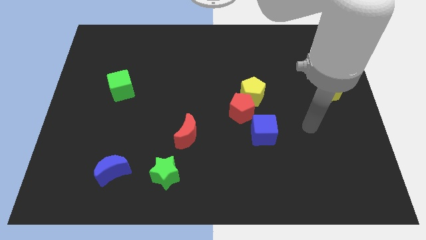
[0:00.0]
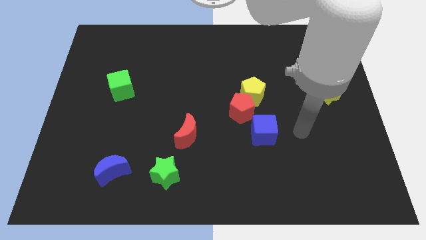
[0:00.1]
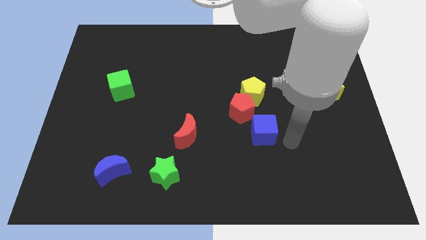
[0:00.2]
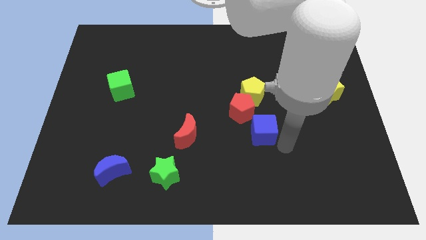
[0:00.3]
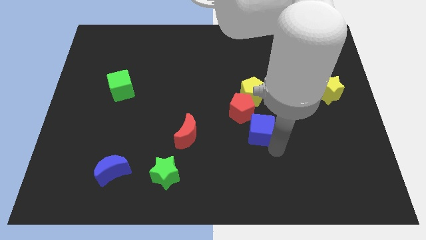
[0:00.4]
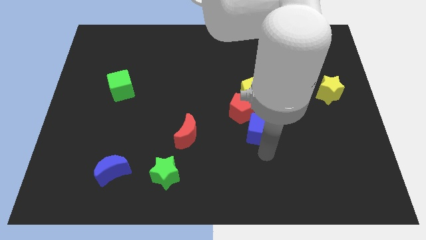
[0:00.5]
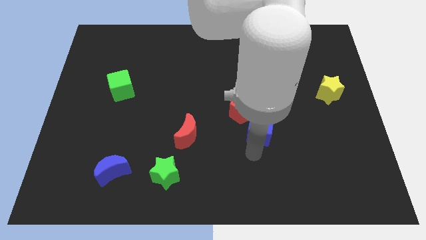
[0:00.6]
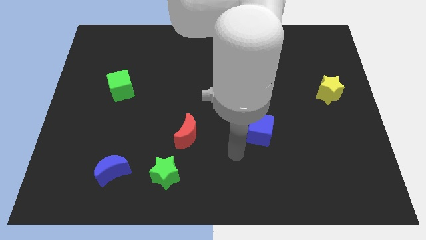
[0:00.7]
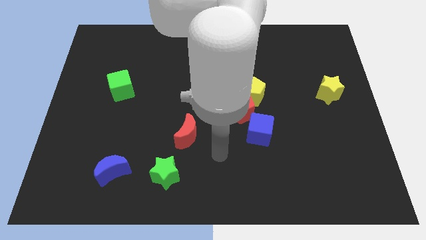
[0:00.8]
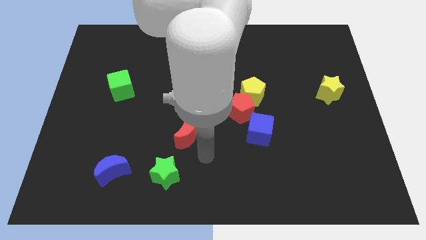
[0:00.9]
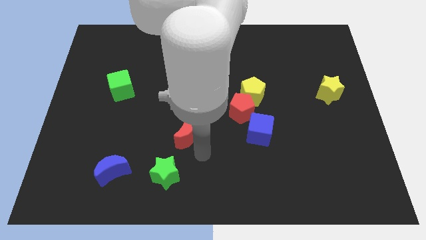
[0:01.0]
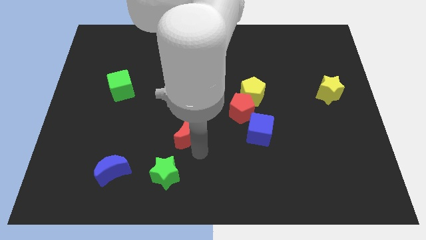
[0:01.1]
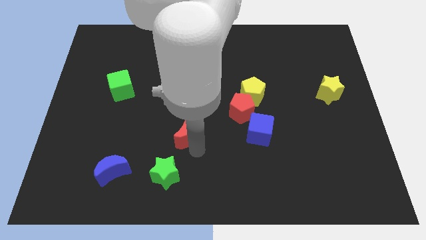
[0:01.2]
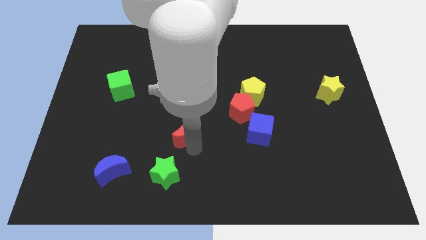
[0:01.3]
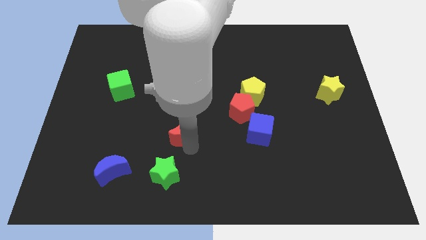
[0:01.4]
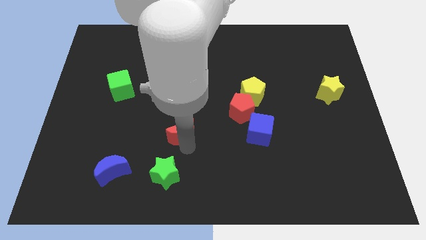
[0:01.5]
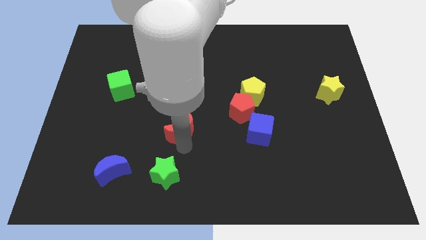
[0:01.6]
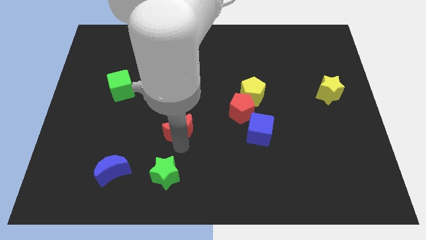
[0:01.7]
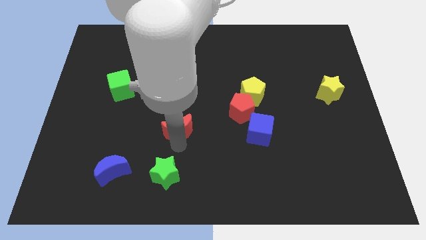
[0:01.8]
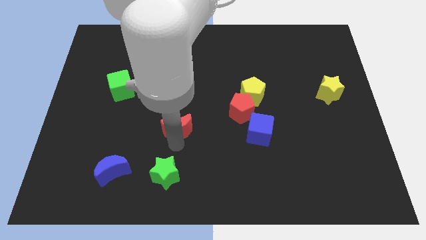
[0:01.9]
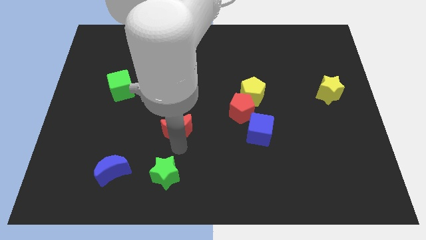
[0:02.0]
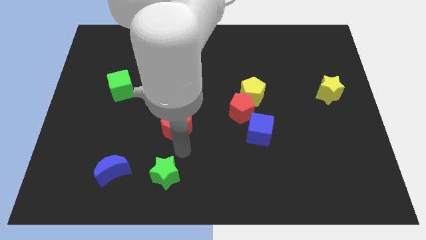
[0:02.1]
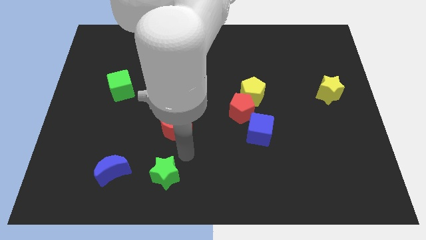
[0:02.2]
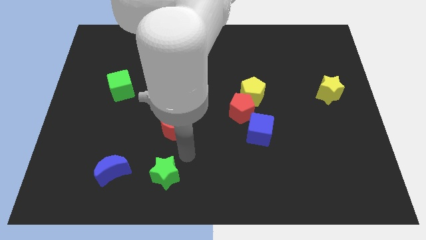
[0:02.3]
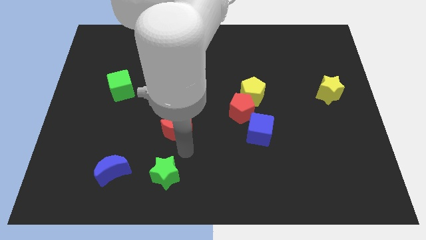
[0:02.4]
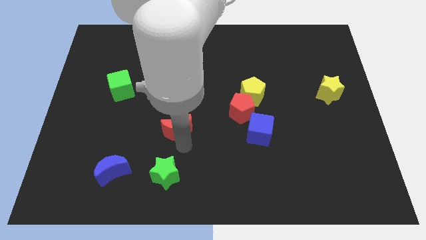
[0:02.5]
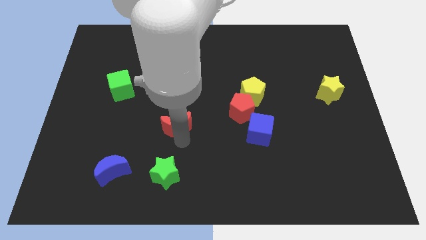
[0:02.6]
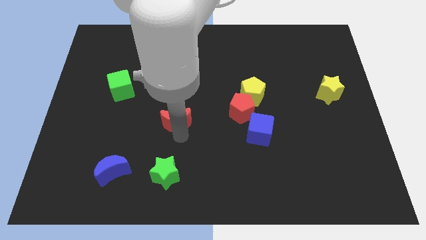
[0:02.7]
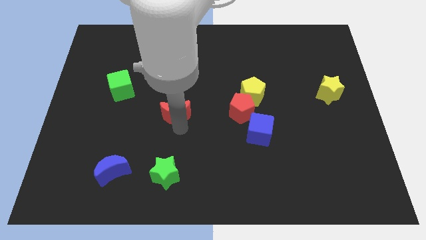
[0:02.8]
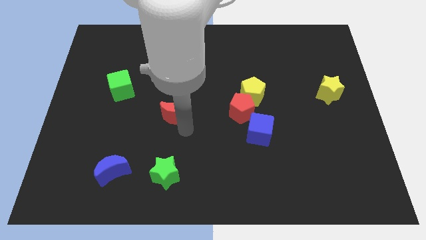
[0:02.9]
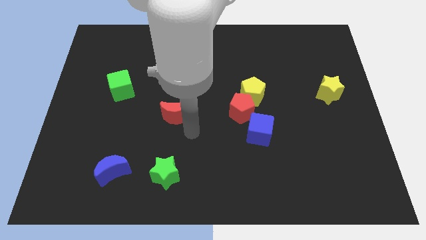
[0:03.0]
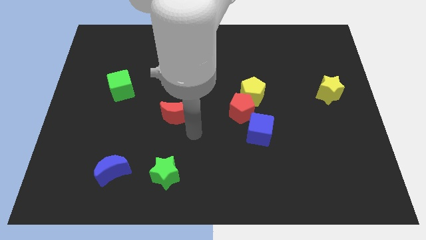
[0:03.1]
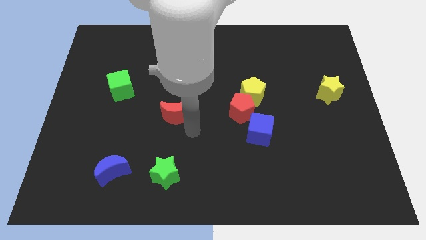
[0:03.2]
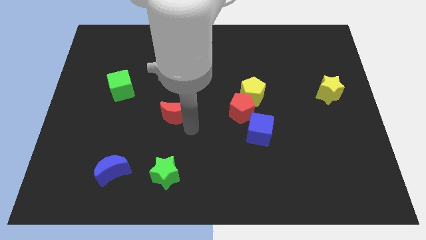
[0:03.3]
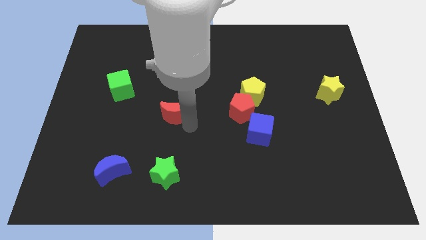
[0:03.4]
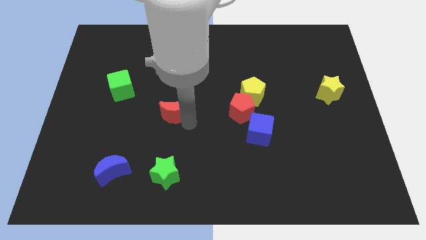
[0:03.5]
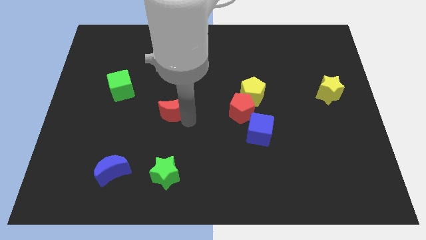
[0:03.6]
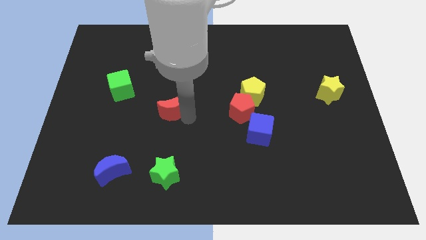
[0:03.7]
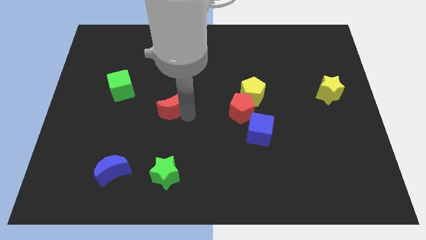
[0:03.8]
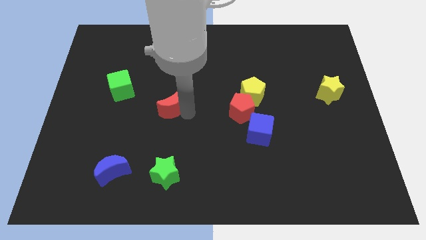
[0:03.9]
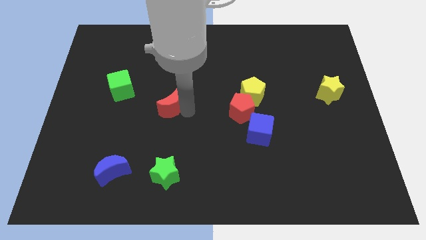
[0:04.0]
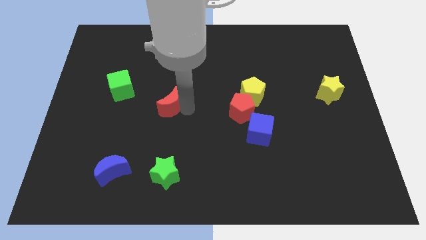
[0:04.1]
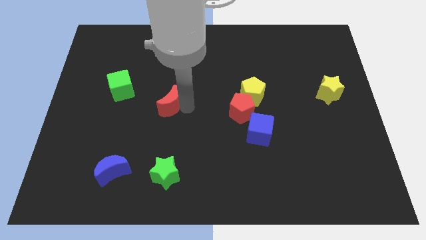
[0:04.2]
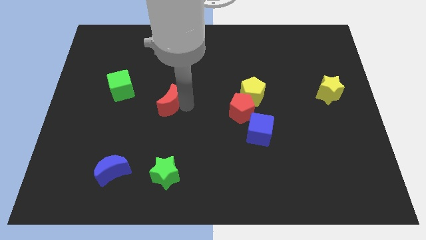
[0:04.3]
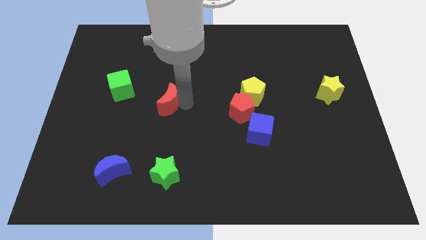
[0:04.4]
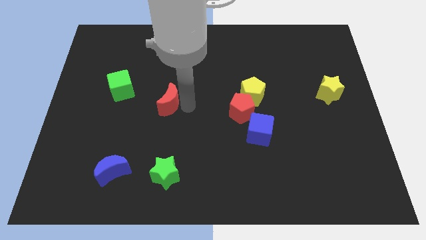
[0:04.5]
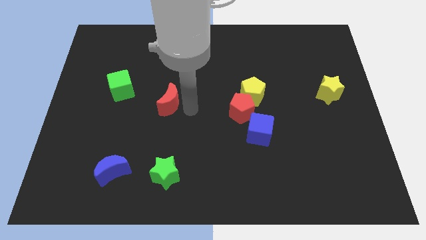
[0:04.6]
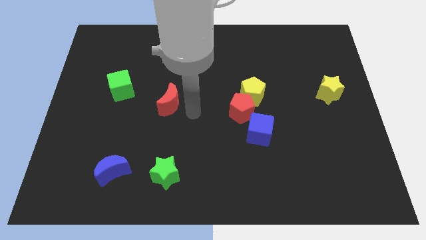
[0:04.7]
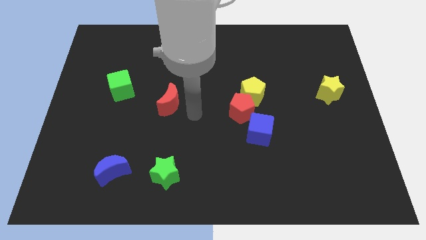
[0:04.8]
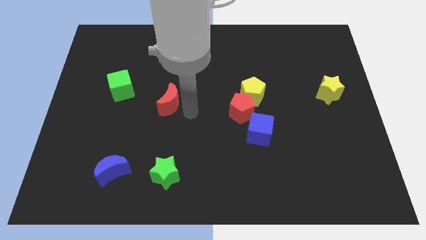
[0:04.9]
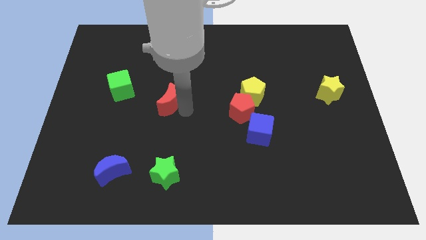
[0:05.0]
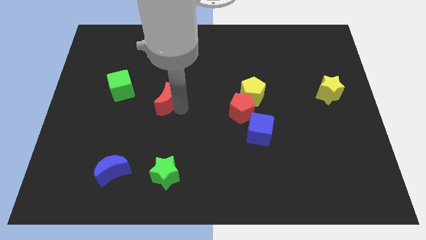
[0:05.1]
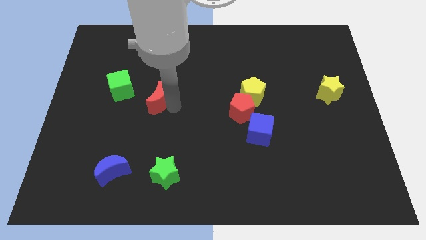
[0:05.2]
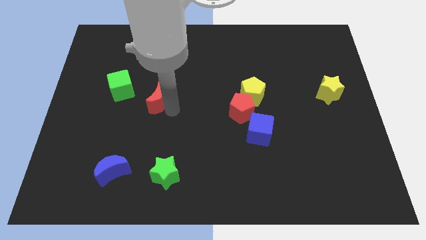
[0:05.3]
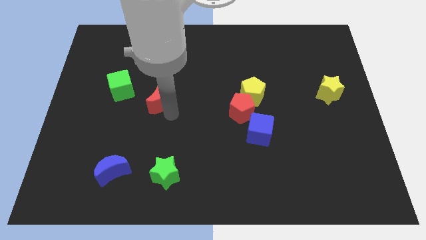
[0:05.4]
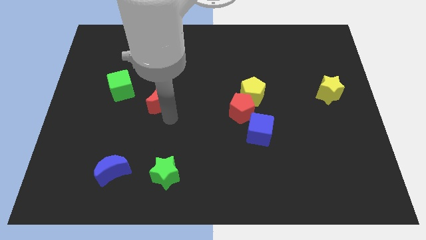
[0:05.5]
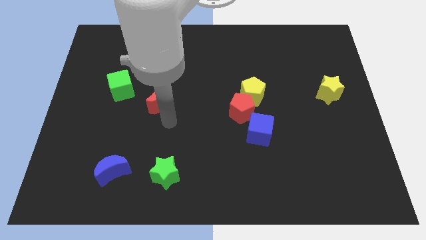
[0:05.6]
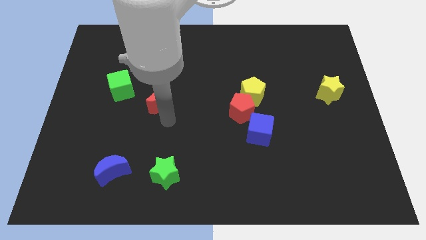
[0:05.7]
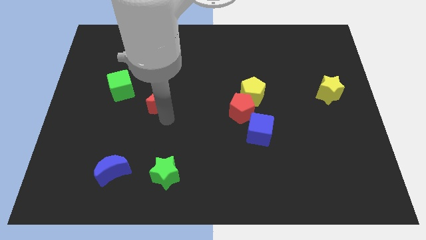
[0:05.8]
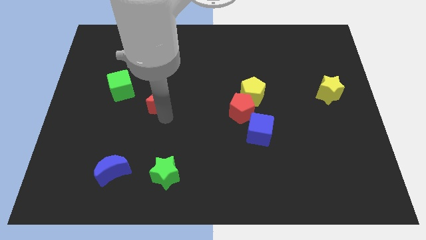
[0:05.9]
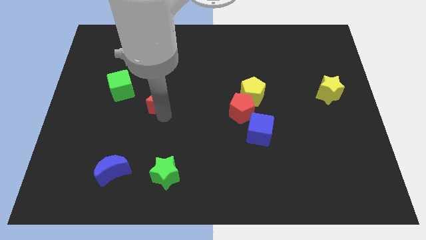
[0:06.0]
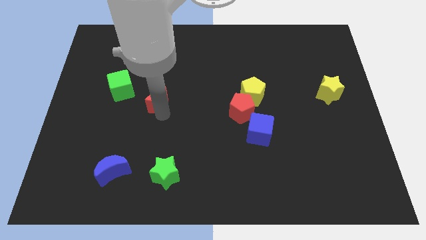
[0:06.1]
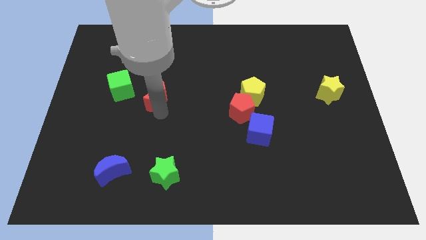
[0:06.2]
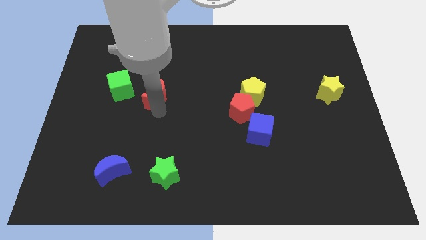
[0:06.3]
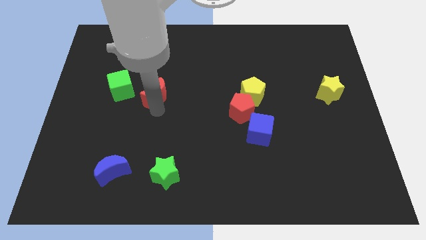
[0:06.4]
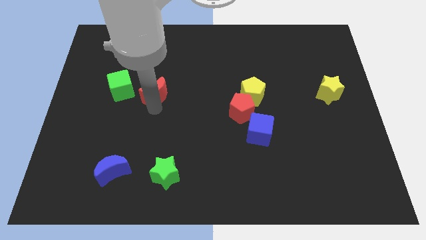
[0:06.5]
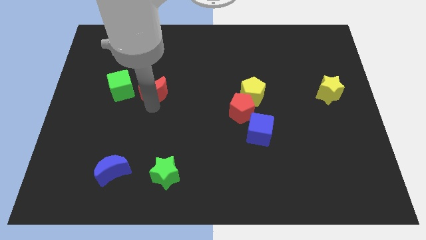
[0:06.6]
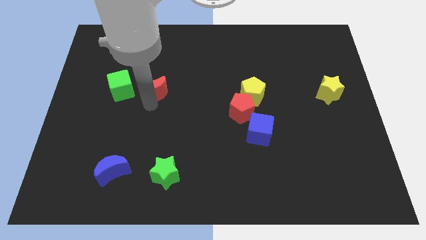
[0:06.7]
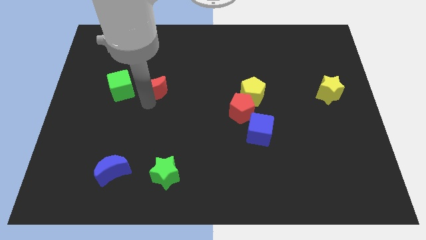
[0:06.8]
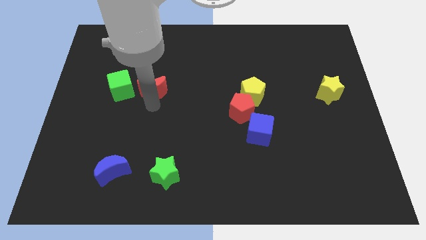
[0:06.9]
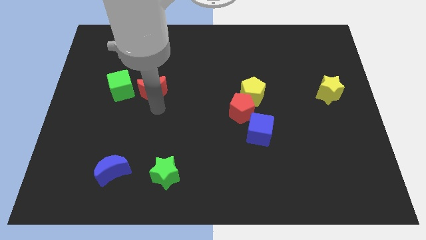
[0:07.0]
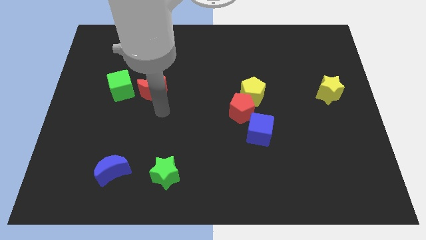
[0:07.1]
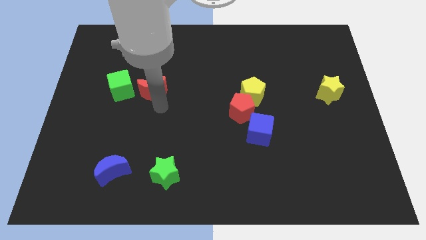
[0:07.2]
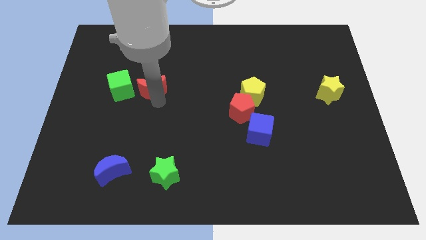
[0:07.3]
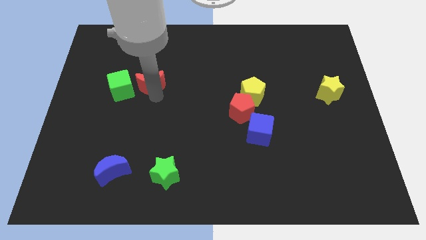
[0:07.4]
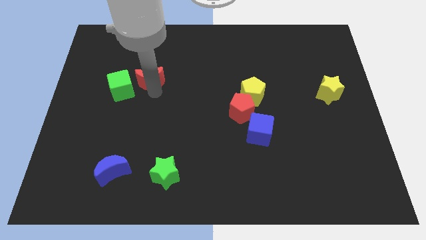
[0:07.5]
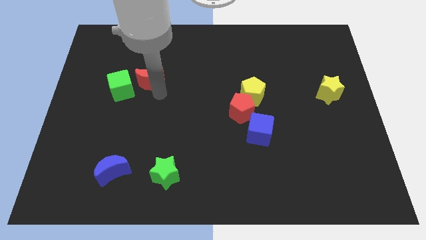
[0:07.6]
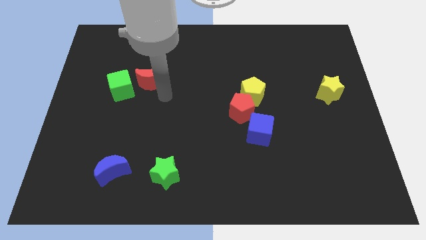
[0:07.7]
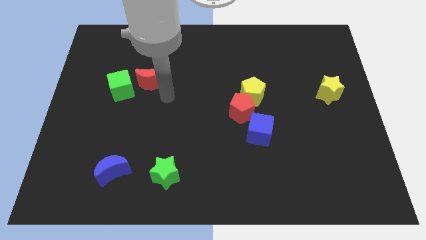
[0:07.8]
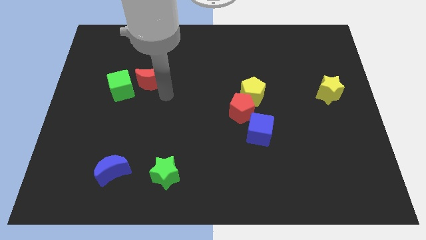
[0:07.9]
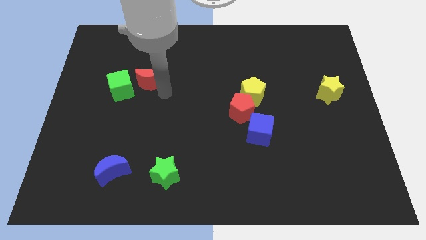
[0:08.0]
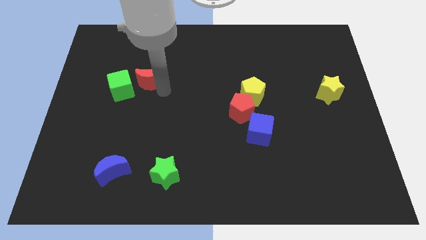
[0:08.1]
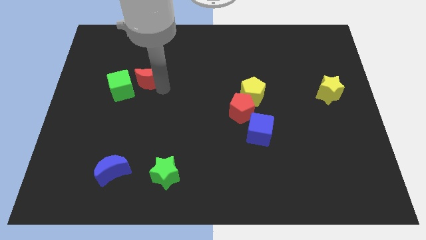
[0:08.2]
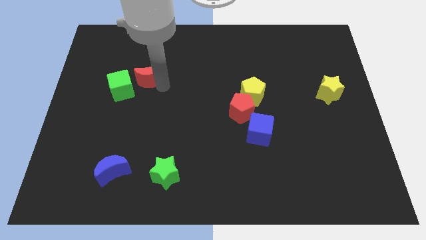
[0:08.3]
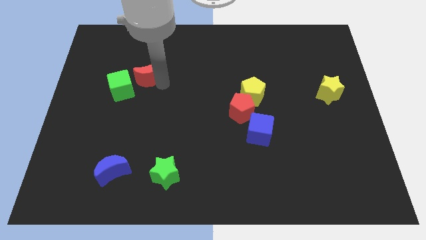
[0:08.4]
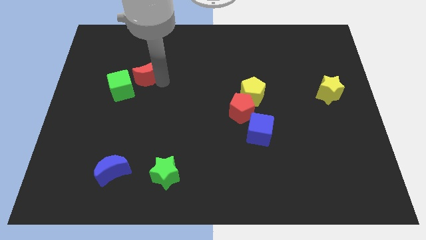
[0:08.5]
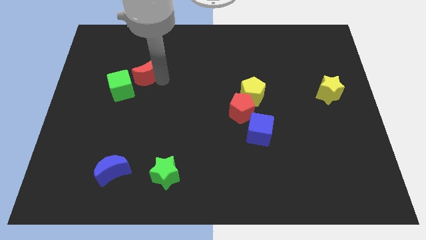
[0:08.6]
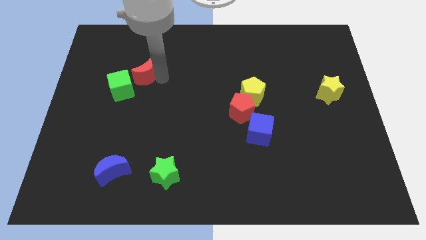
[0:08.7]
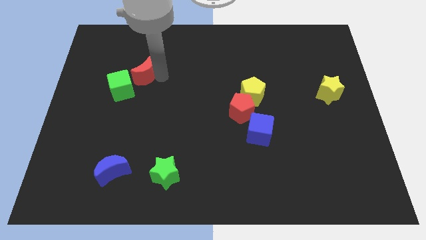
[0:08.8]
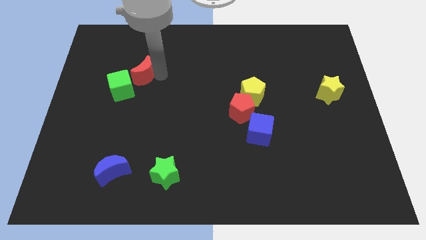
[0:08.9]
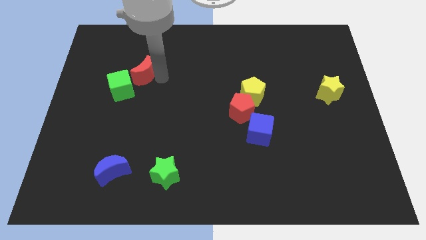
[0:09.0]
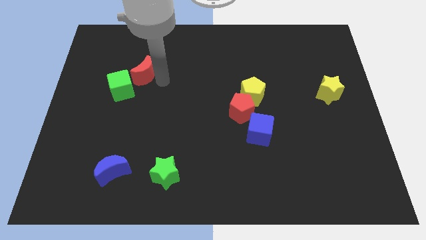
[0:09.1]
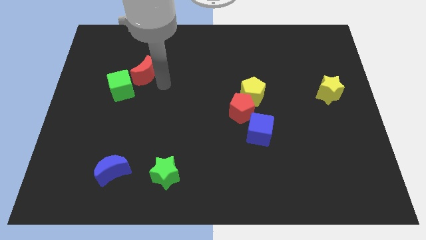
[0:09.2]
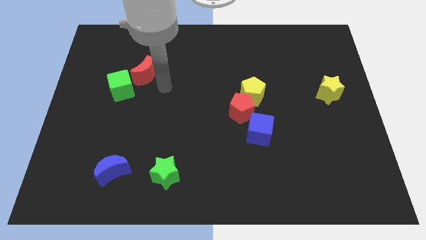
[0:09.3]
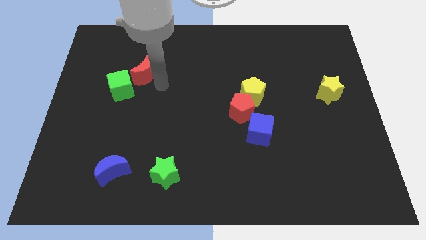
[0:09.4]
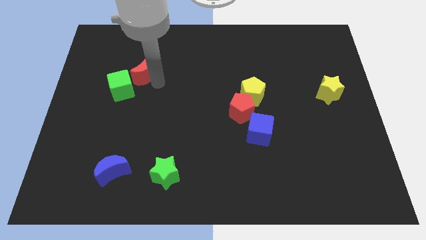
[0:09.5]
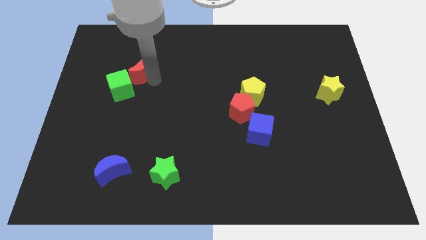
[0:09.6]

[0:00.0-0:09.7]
push the red moon to the top of the green cube
